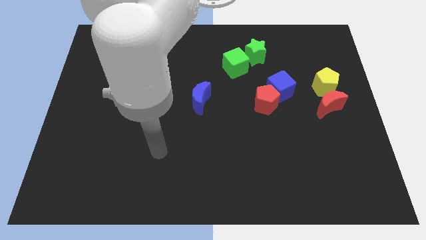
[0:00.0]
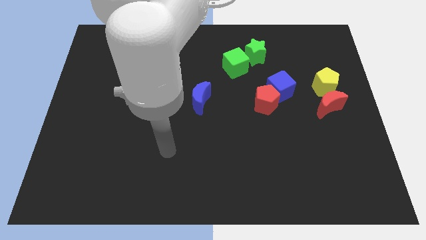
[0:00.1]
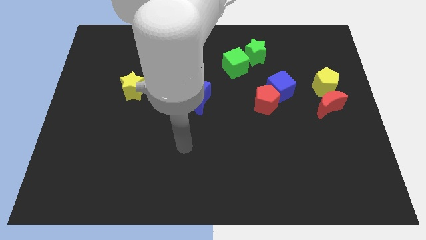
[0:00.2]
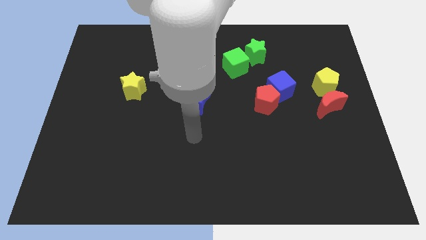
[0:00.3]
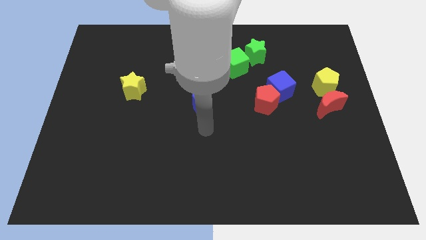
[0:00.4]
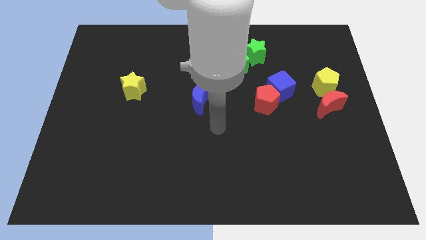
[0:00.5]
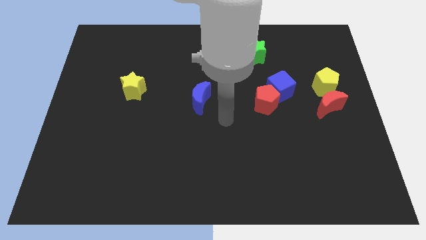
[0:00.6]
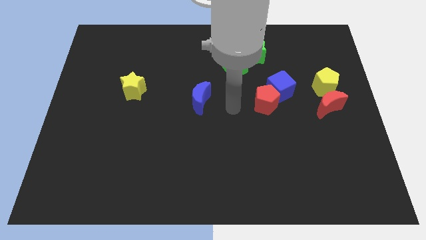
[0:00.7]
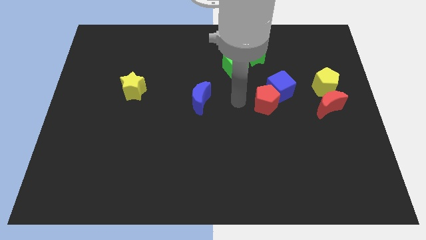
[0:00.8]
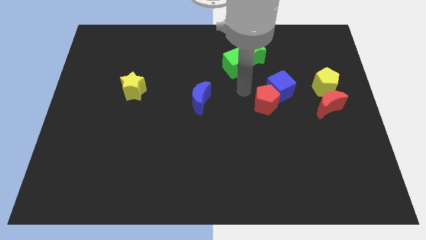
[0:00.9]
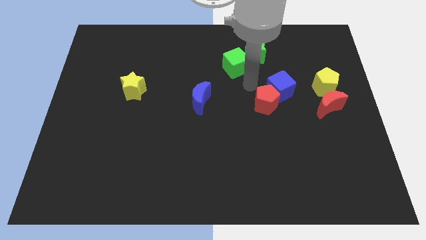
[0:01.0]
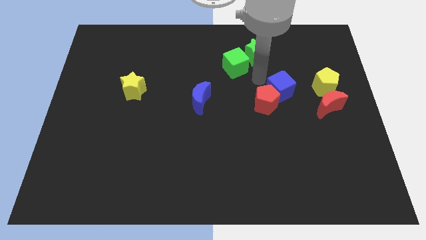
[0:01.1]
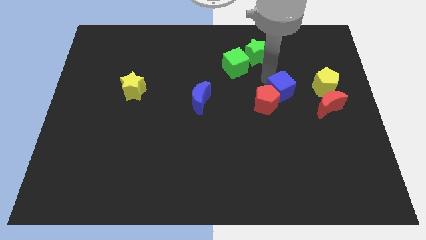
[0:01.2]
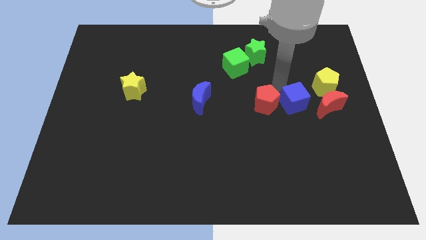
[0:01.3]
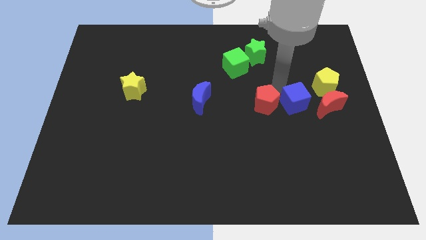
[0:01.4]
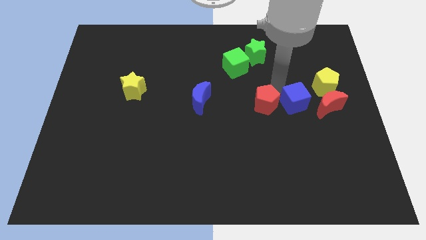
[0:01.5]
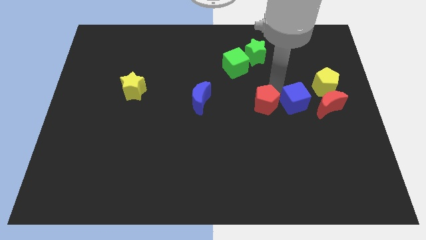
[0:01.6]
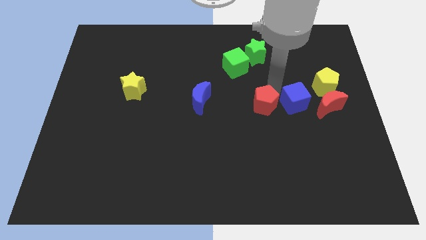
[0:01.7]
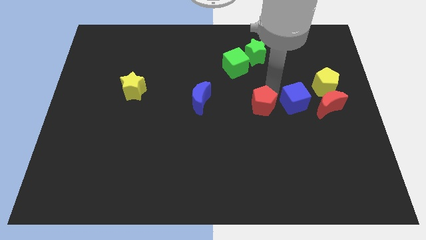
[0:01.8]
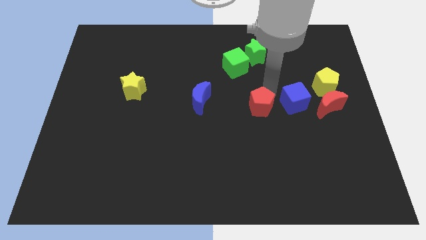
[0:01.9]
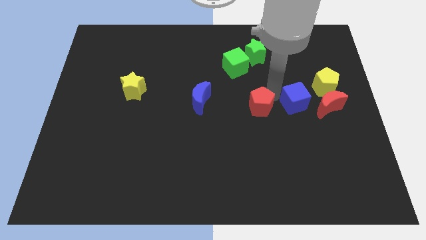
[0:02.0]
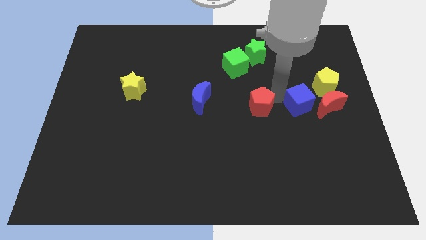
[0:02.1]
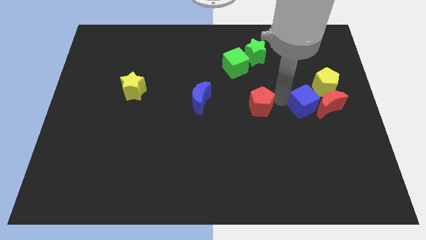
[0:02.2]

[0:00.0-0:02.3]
move the red pentagon away from the blue cube

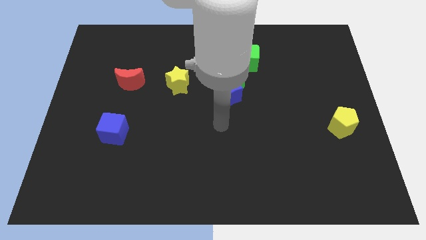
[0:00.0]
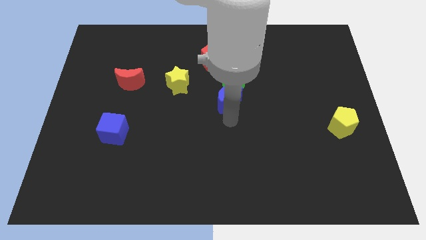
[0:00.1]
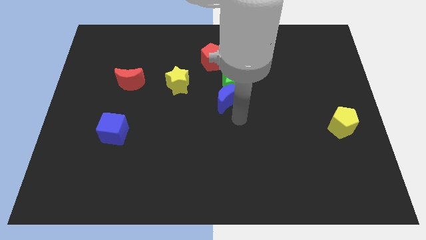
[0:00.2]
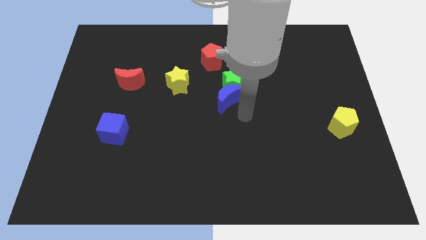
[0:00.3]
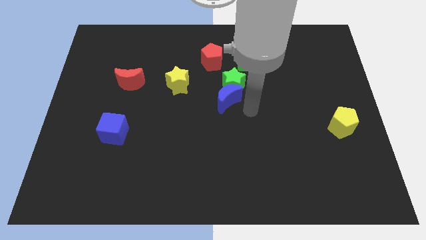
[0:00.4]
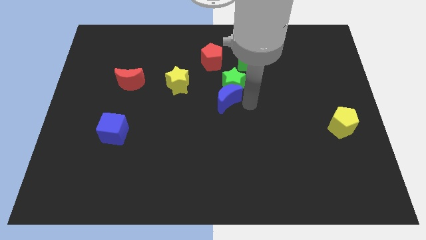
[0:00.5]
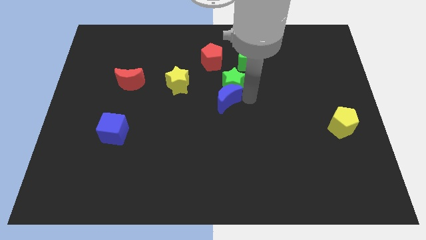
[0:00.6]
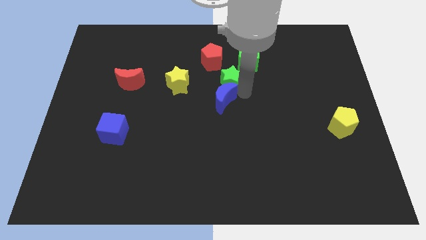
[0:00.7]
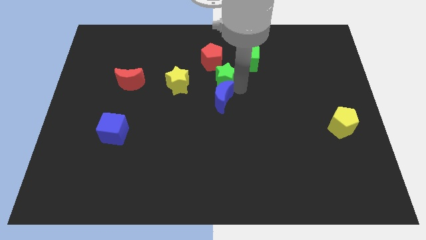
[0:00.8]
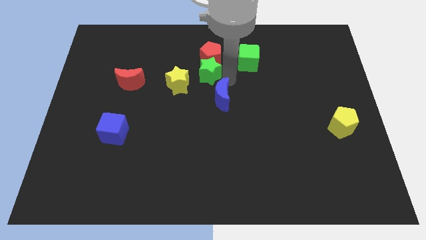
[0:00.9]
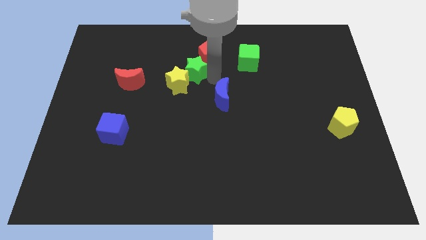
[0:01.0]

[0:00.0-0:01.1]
separate the blue moon from the green star

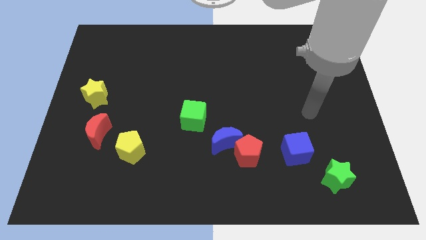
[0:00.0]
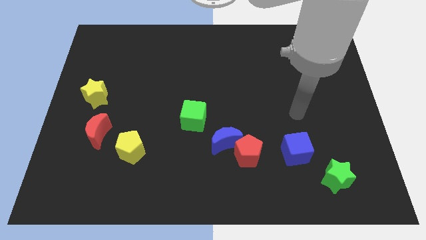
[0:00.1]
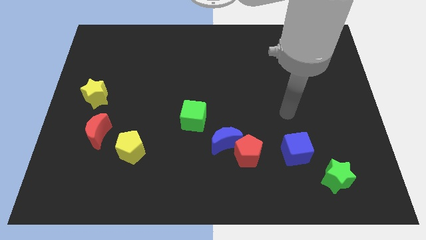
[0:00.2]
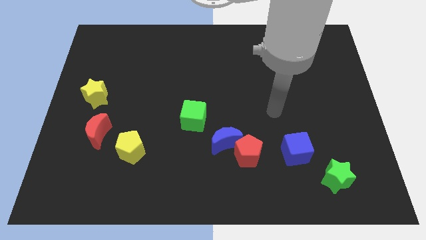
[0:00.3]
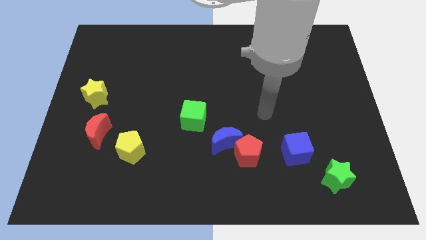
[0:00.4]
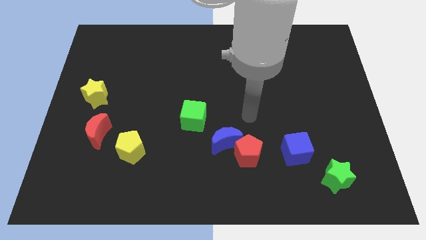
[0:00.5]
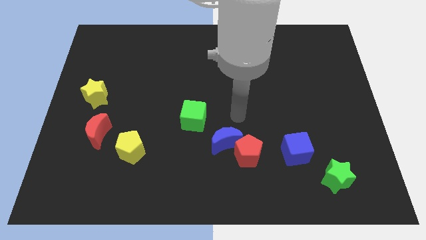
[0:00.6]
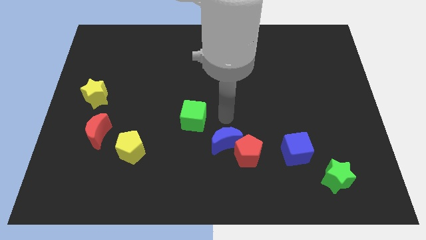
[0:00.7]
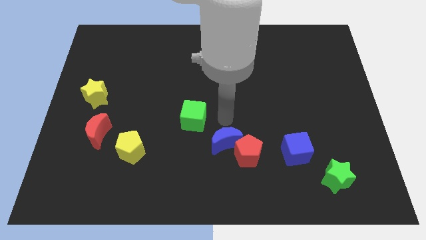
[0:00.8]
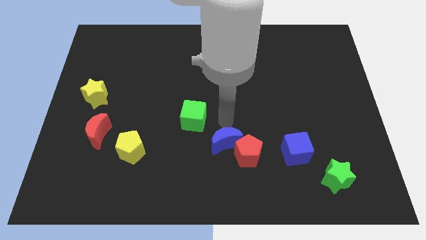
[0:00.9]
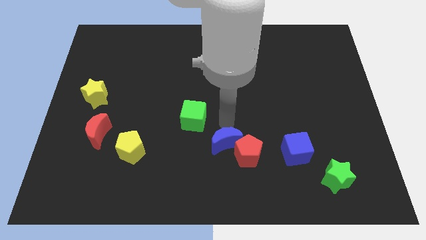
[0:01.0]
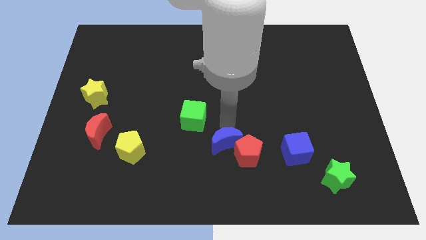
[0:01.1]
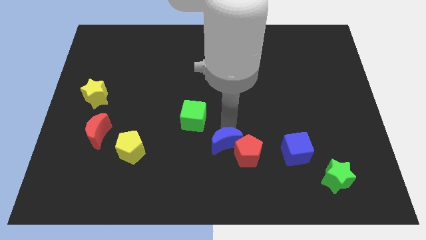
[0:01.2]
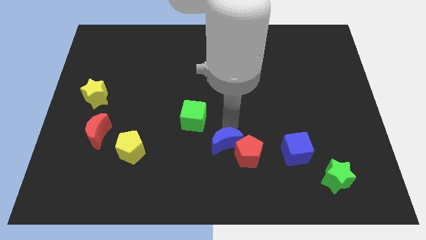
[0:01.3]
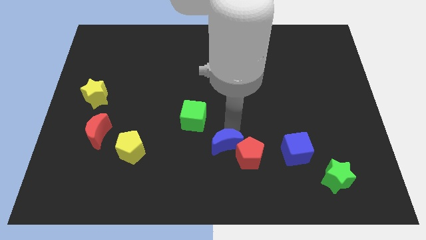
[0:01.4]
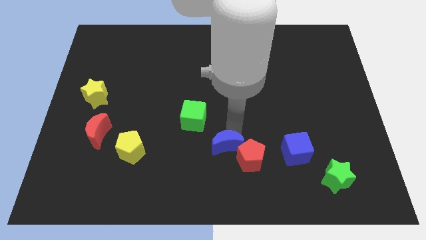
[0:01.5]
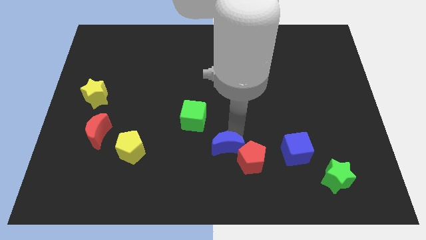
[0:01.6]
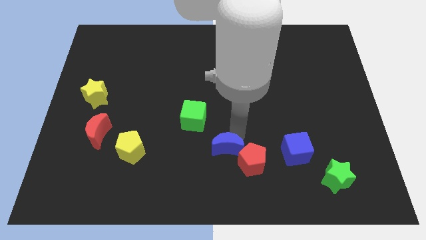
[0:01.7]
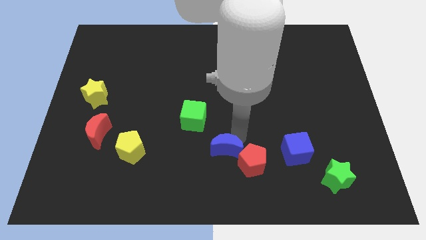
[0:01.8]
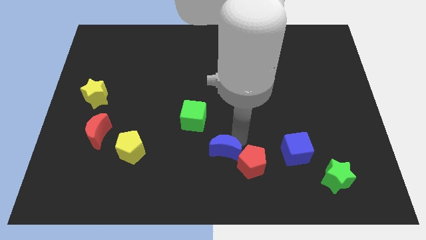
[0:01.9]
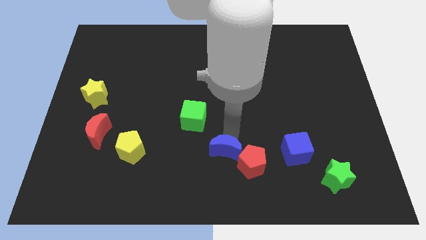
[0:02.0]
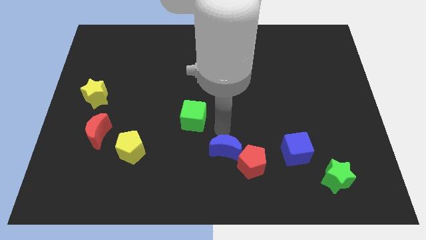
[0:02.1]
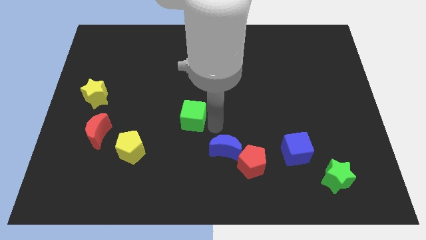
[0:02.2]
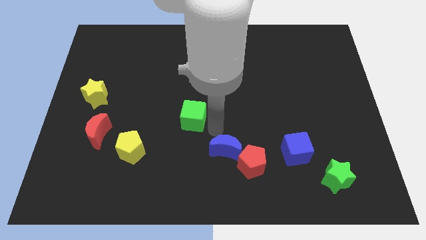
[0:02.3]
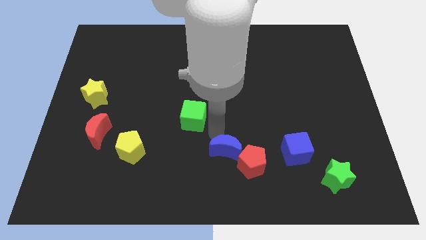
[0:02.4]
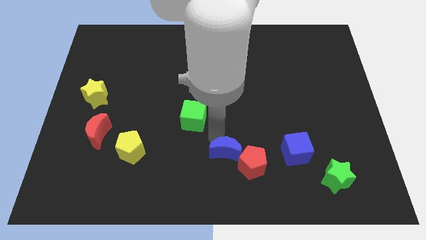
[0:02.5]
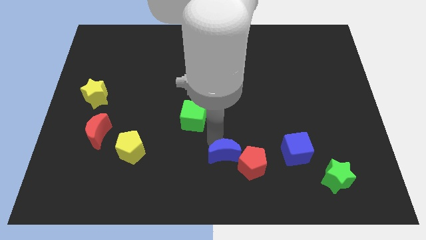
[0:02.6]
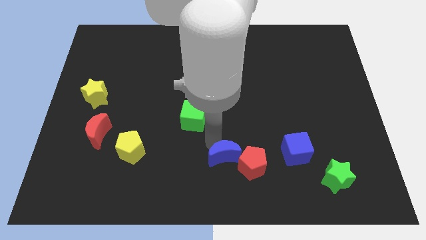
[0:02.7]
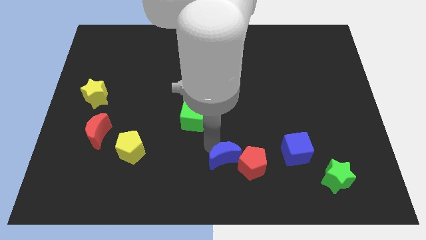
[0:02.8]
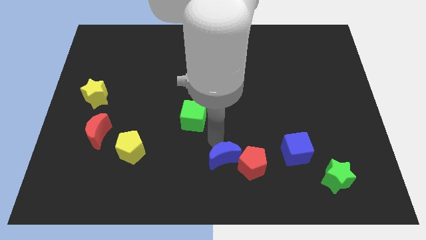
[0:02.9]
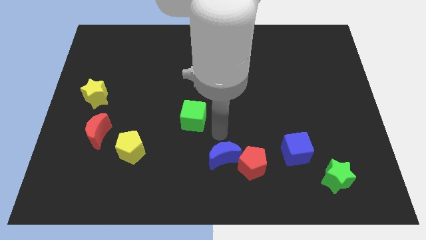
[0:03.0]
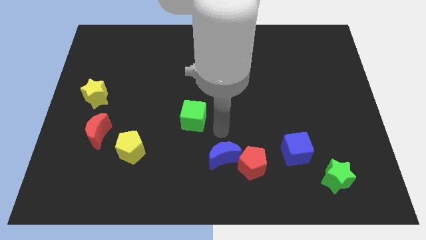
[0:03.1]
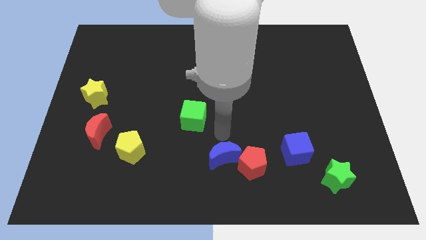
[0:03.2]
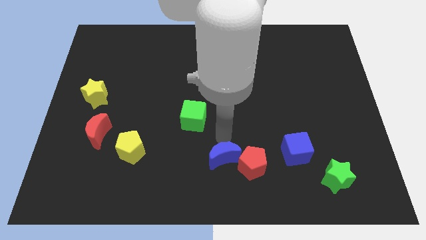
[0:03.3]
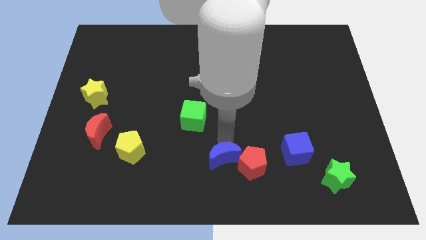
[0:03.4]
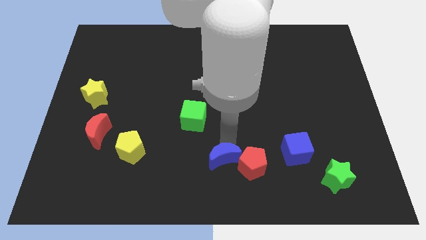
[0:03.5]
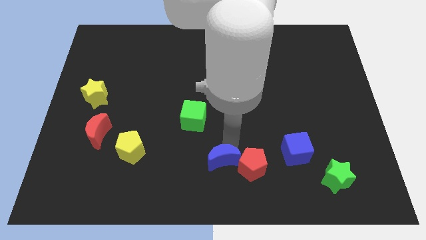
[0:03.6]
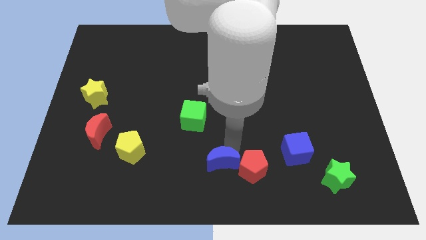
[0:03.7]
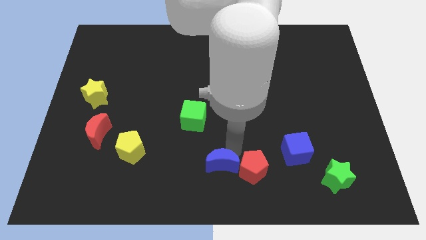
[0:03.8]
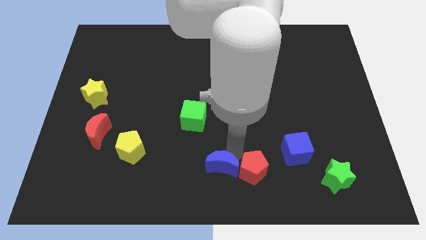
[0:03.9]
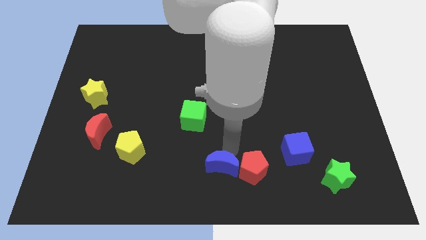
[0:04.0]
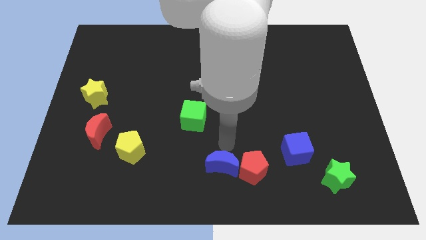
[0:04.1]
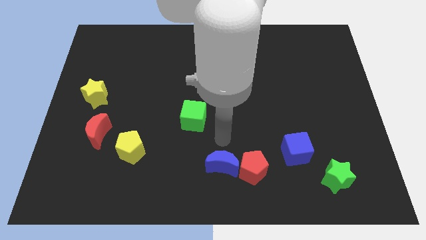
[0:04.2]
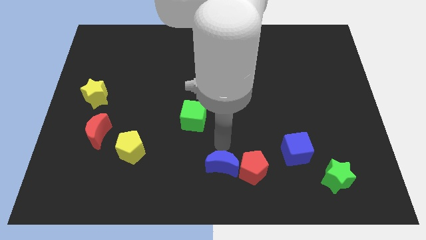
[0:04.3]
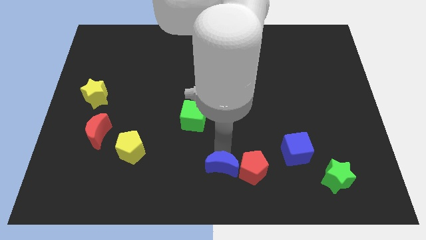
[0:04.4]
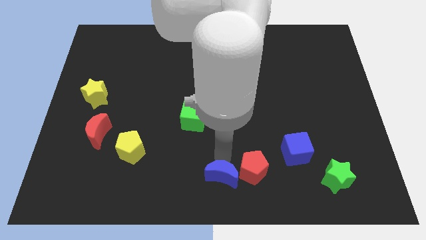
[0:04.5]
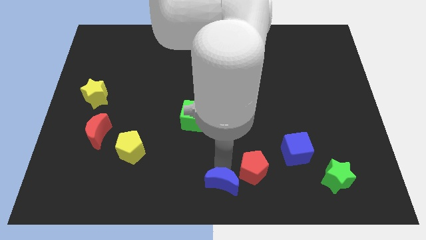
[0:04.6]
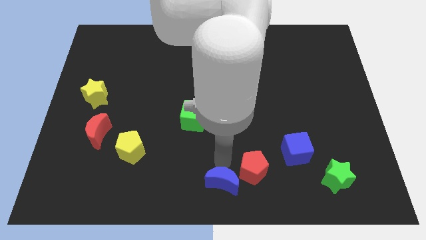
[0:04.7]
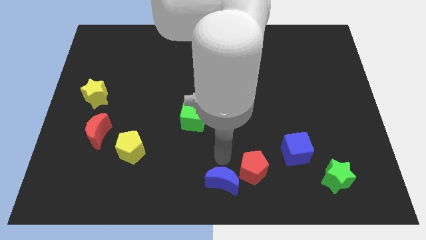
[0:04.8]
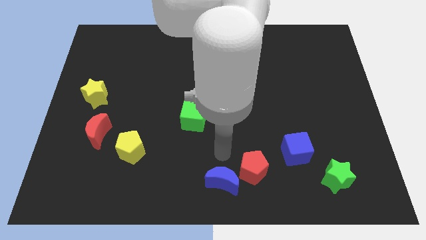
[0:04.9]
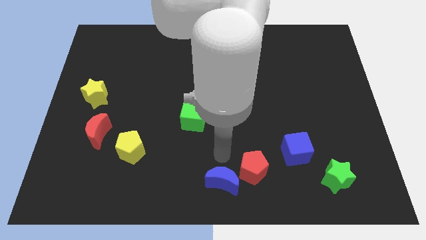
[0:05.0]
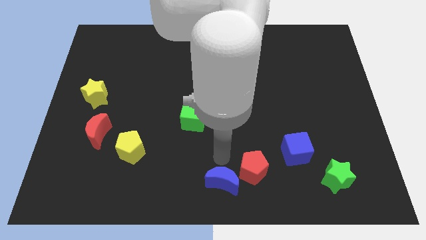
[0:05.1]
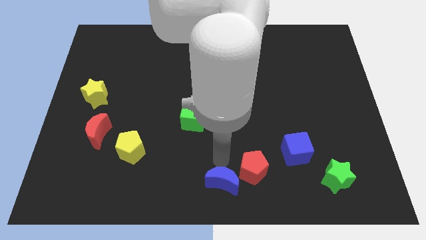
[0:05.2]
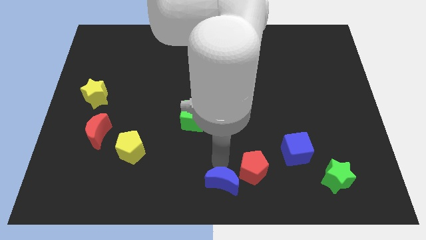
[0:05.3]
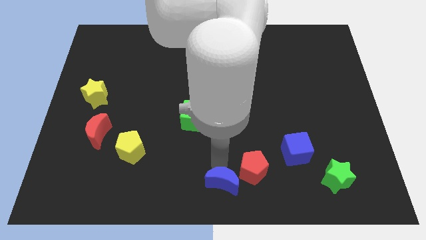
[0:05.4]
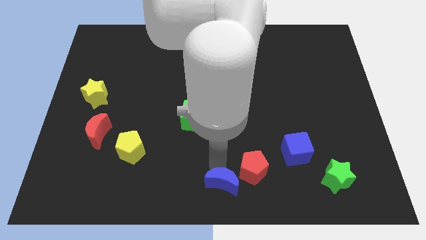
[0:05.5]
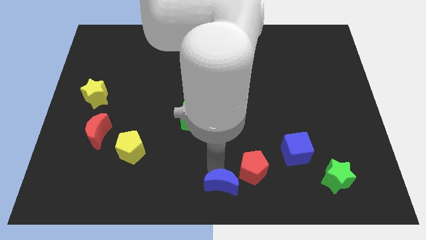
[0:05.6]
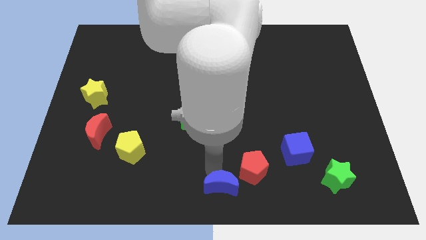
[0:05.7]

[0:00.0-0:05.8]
pull the blue moon apart from the red pentagon and green cube

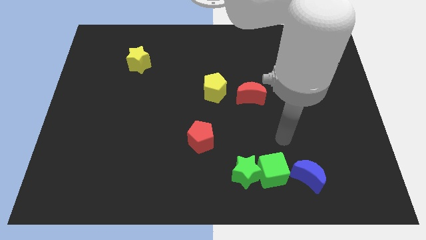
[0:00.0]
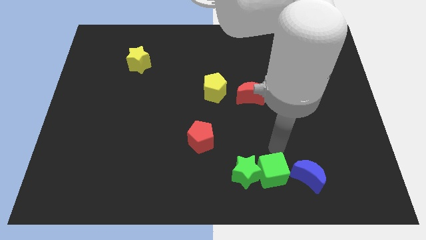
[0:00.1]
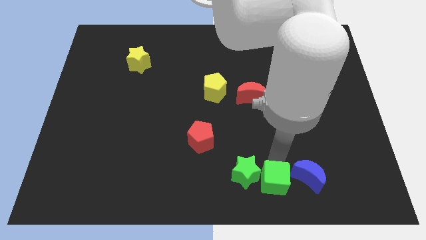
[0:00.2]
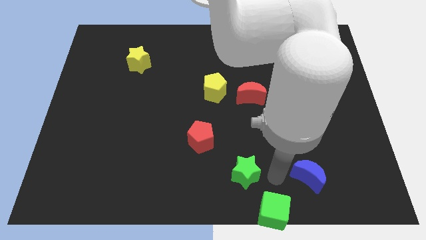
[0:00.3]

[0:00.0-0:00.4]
pull the green star apart from the green cube
